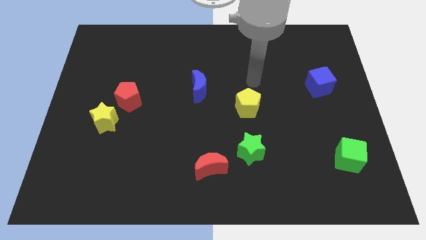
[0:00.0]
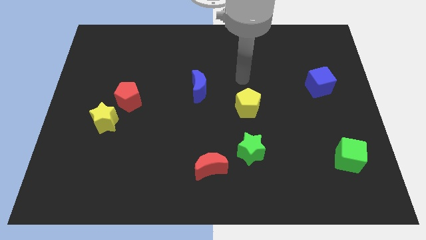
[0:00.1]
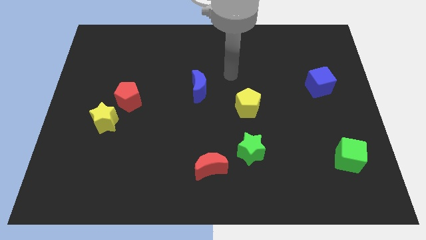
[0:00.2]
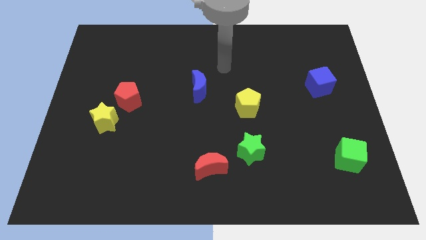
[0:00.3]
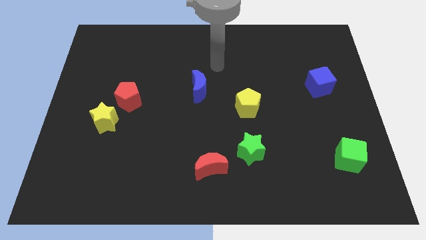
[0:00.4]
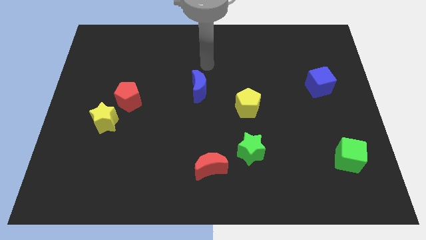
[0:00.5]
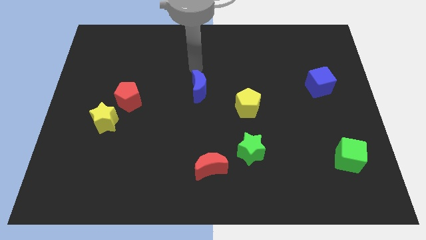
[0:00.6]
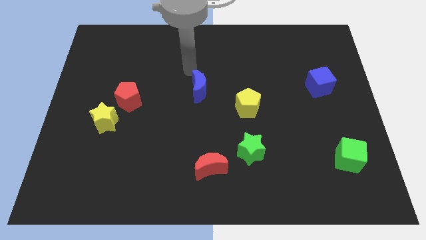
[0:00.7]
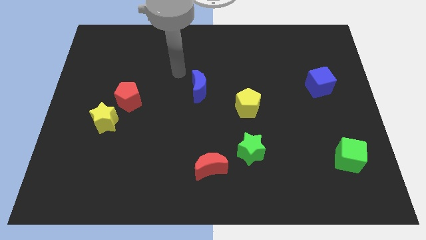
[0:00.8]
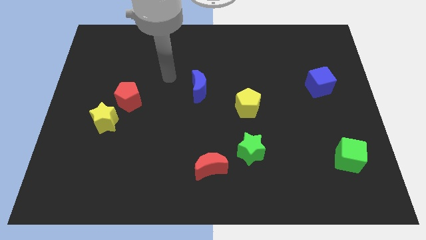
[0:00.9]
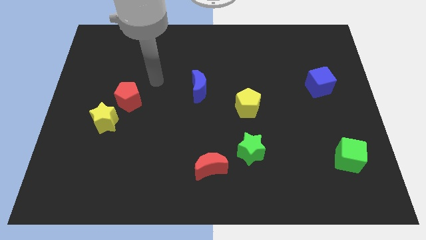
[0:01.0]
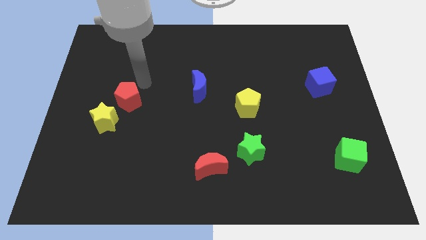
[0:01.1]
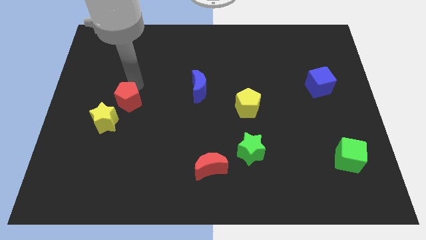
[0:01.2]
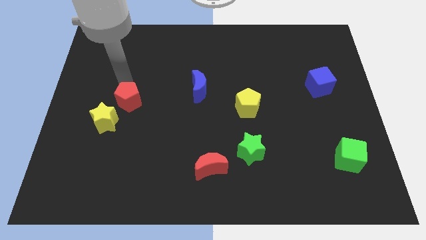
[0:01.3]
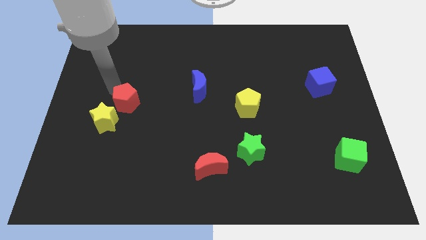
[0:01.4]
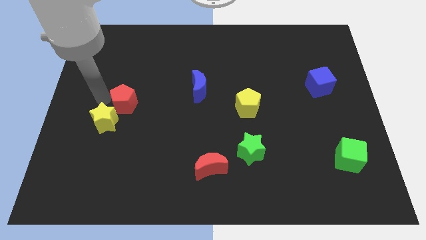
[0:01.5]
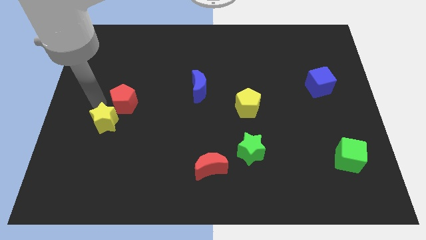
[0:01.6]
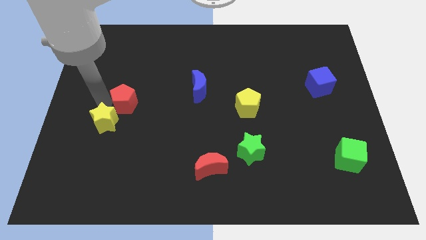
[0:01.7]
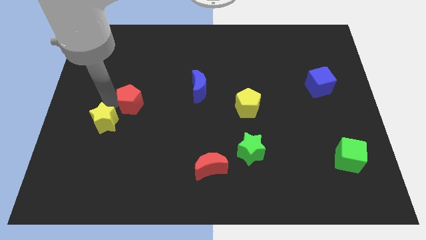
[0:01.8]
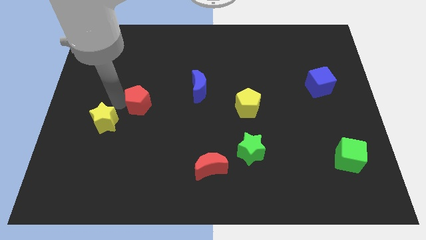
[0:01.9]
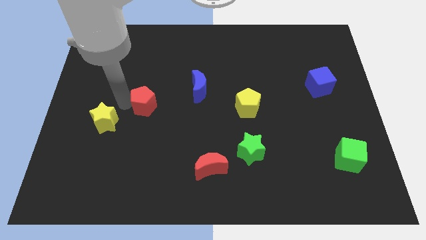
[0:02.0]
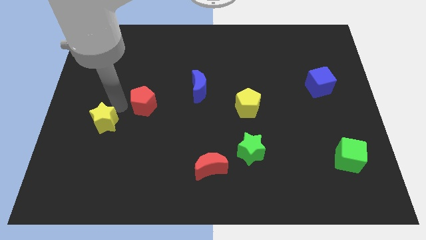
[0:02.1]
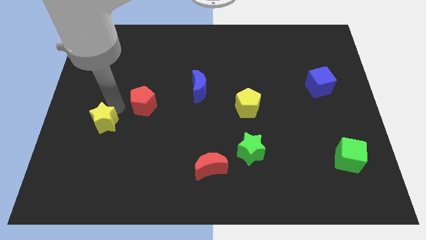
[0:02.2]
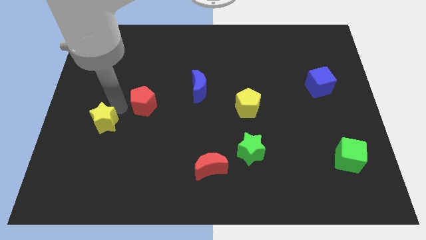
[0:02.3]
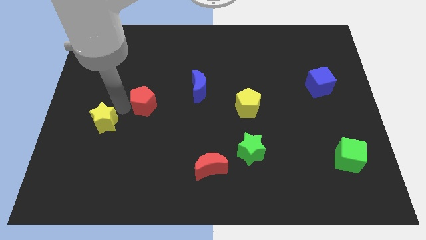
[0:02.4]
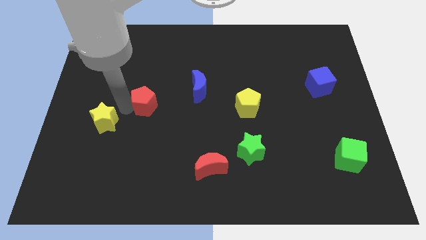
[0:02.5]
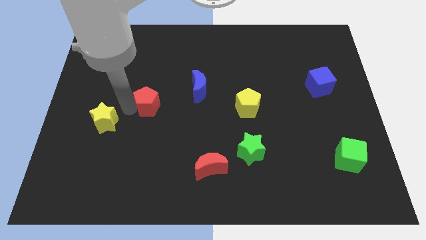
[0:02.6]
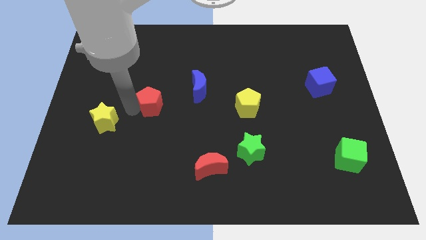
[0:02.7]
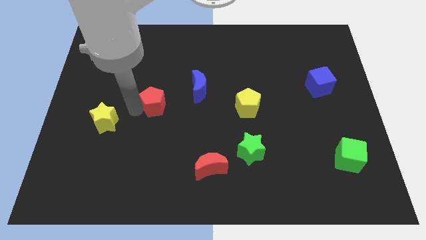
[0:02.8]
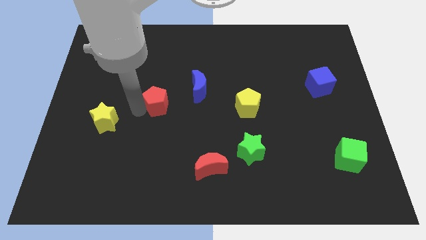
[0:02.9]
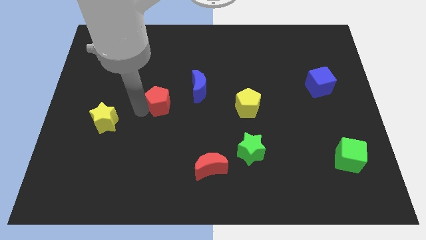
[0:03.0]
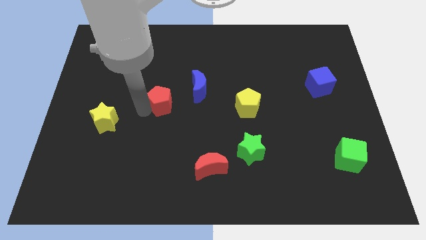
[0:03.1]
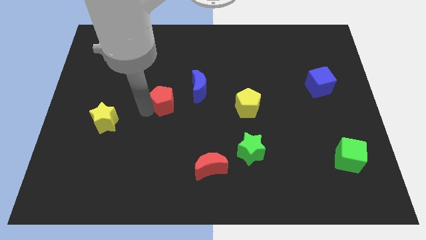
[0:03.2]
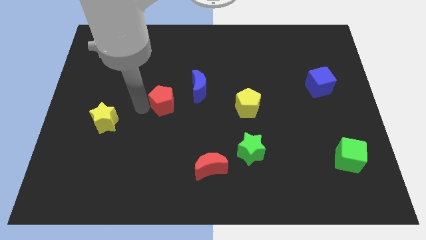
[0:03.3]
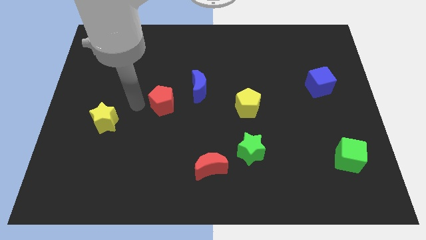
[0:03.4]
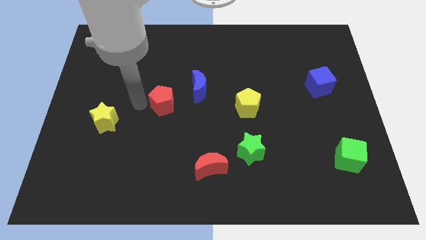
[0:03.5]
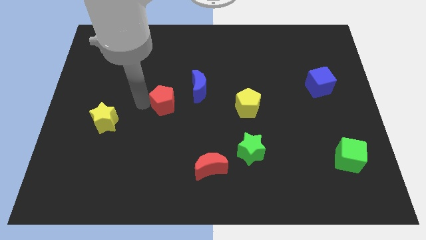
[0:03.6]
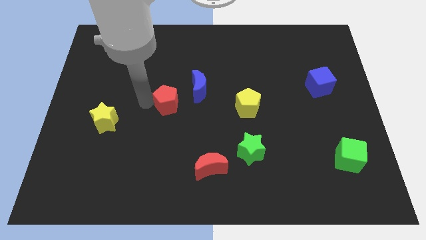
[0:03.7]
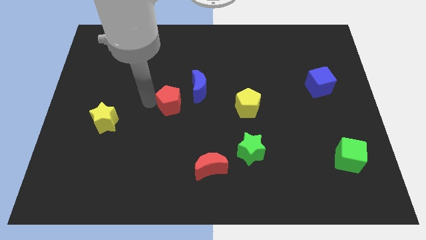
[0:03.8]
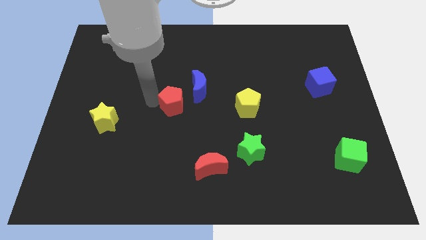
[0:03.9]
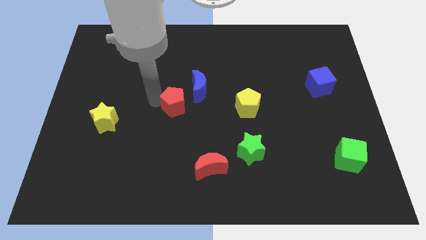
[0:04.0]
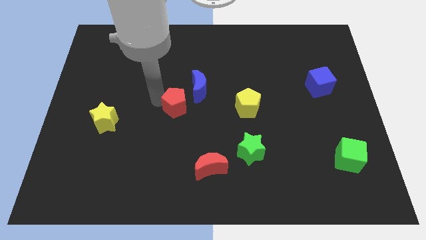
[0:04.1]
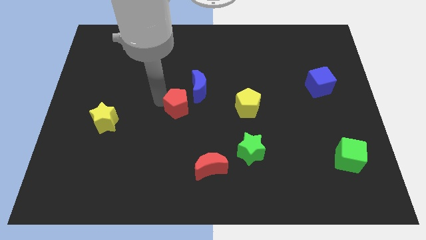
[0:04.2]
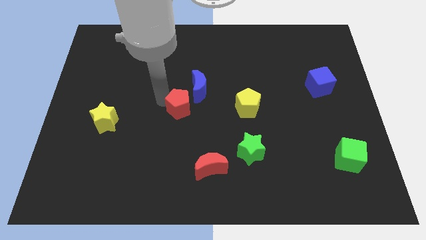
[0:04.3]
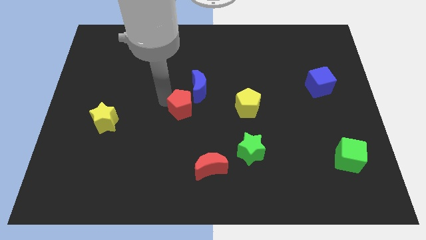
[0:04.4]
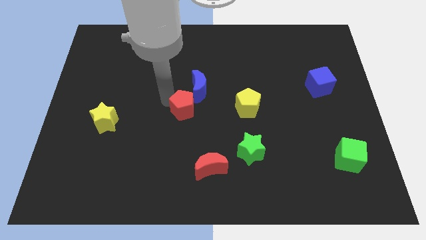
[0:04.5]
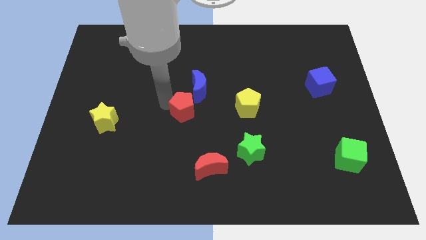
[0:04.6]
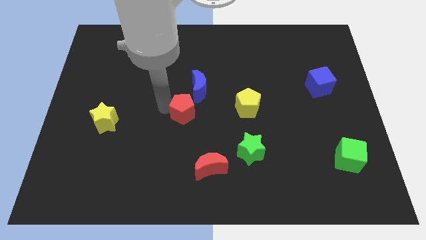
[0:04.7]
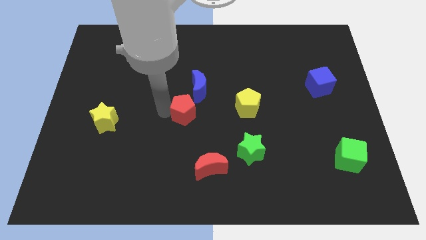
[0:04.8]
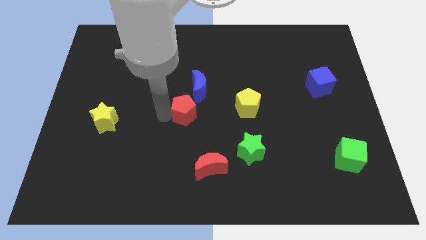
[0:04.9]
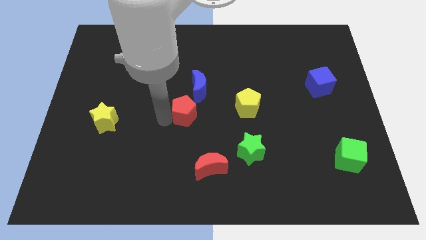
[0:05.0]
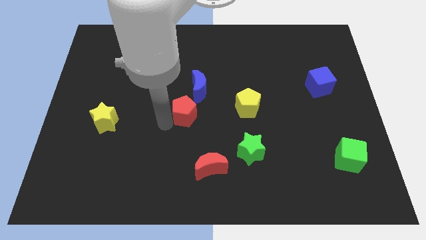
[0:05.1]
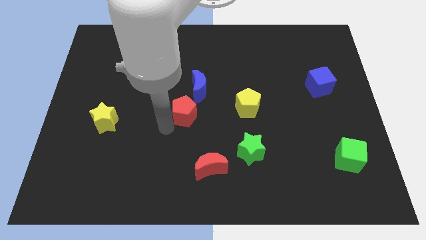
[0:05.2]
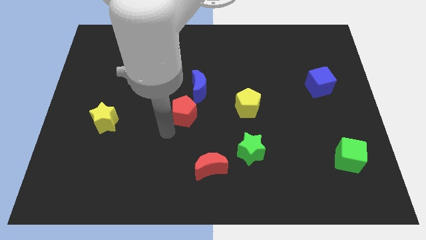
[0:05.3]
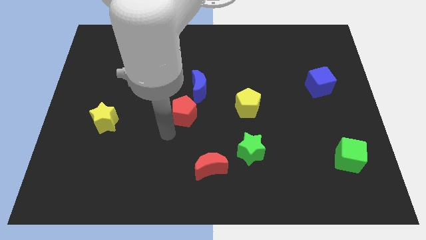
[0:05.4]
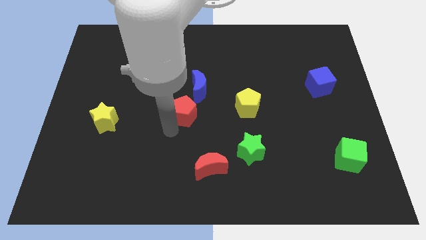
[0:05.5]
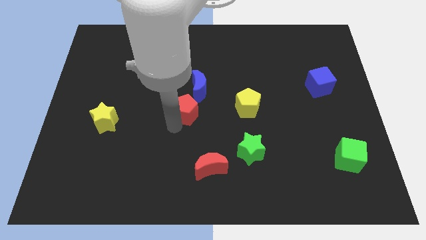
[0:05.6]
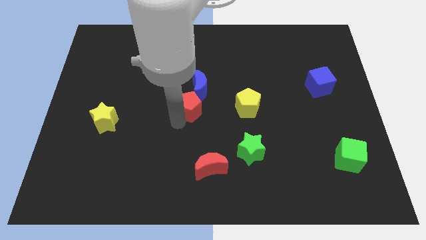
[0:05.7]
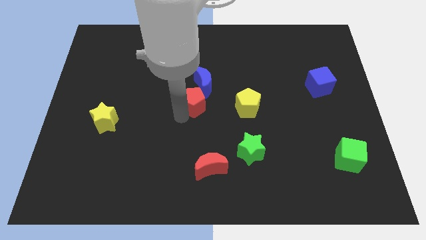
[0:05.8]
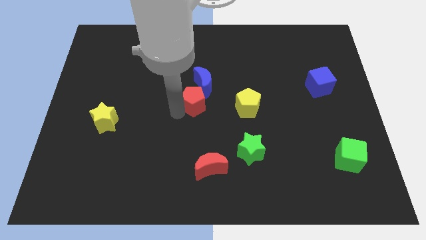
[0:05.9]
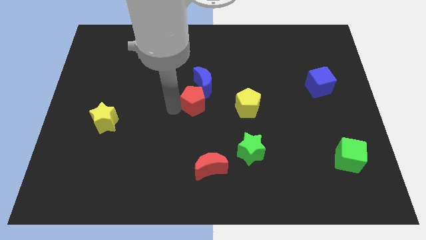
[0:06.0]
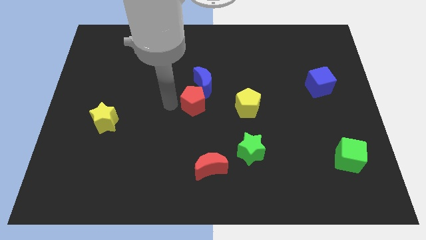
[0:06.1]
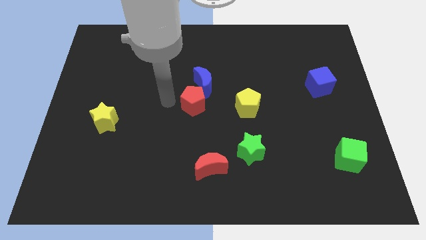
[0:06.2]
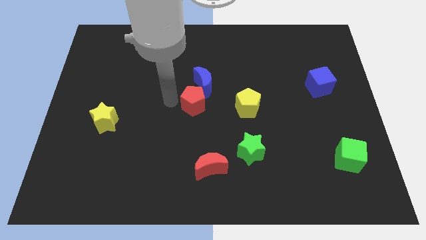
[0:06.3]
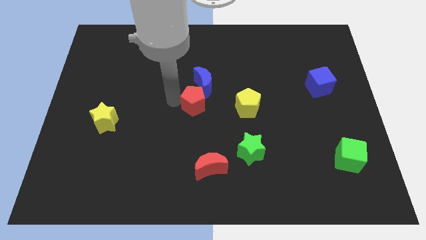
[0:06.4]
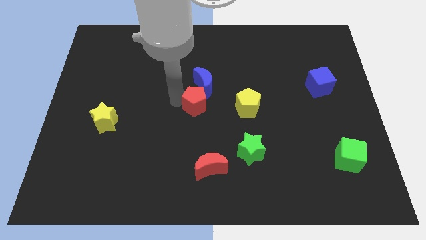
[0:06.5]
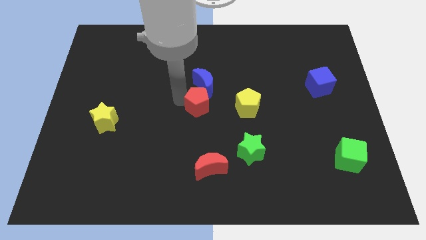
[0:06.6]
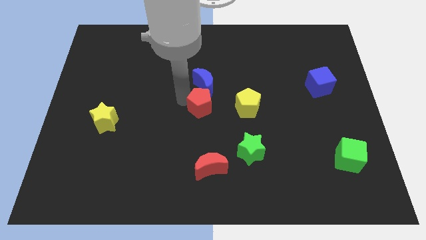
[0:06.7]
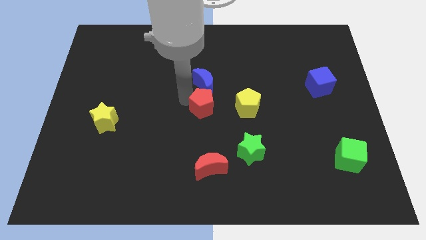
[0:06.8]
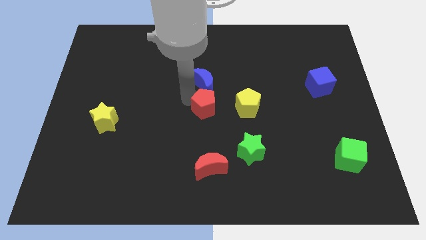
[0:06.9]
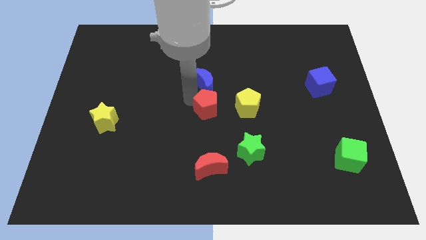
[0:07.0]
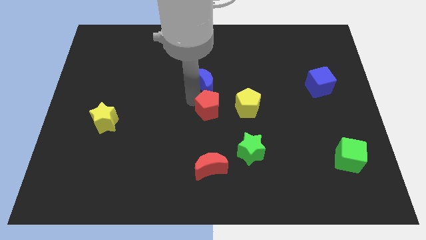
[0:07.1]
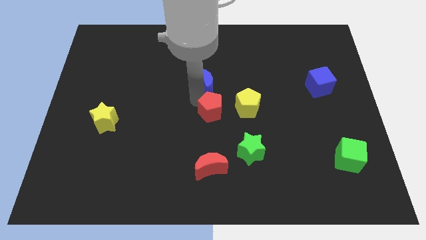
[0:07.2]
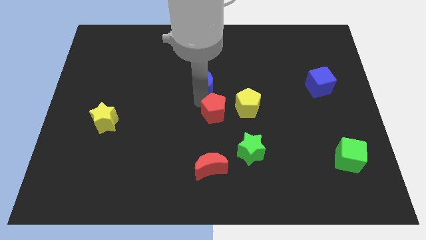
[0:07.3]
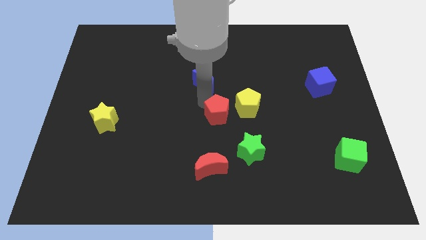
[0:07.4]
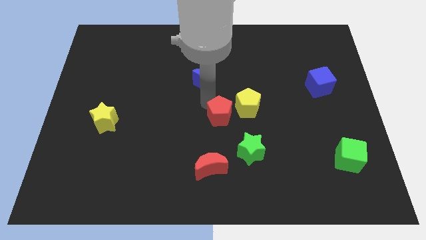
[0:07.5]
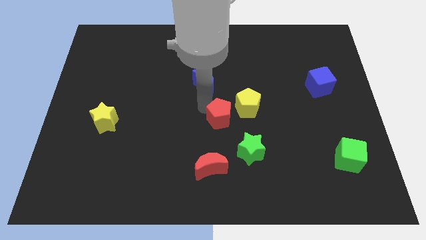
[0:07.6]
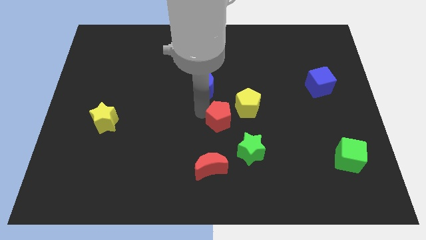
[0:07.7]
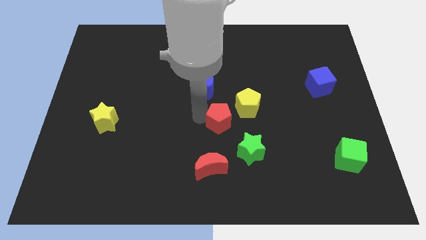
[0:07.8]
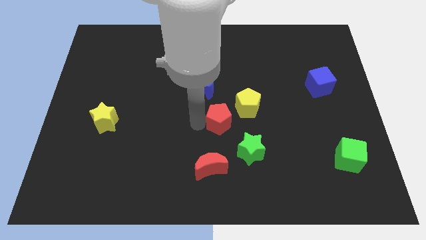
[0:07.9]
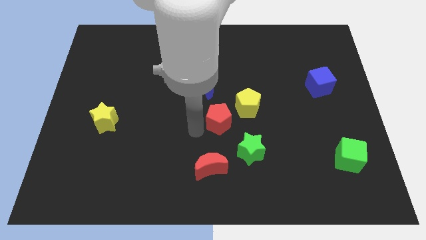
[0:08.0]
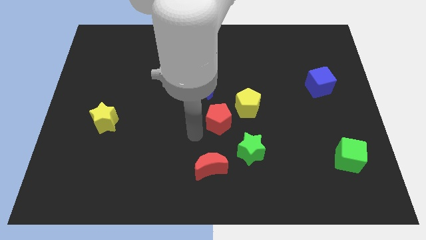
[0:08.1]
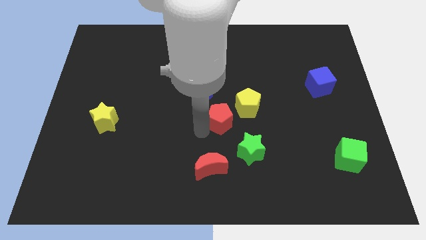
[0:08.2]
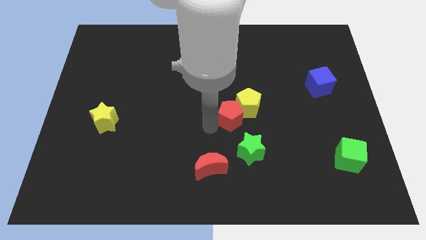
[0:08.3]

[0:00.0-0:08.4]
push the red pentagon next to the yellow pentagon
